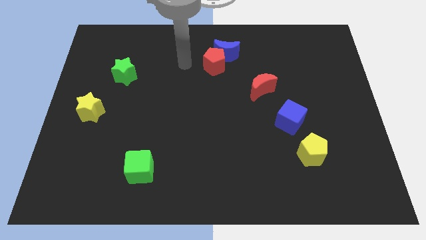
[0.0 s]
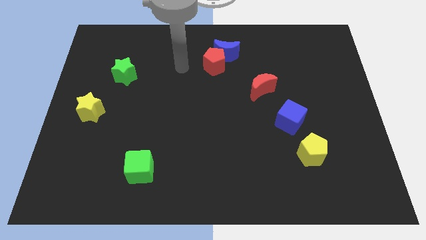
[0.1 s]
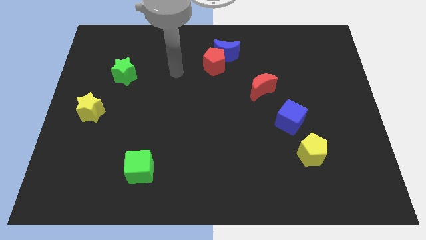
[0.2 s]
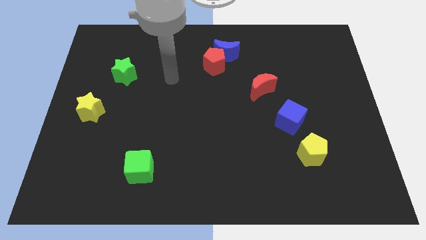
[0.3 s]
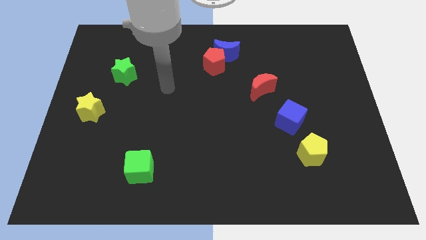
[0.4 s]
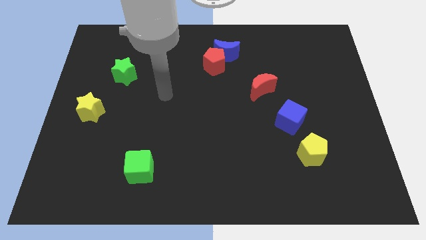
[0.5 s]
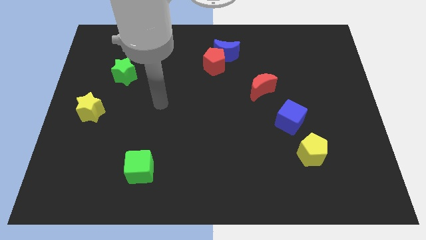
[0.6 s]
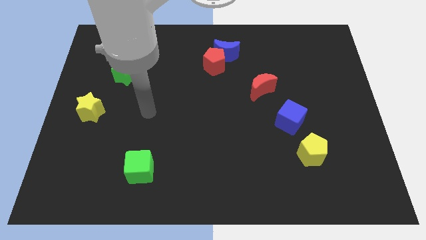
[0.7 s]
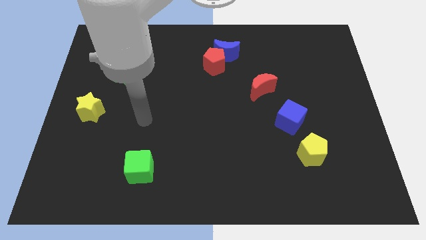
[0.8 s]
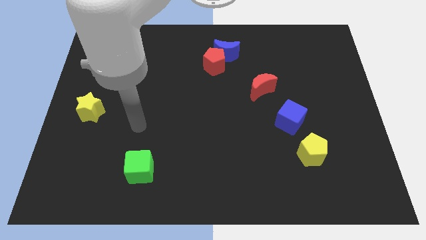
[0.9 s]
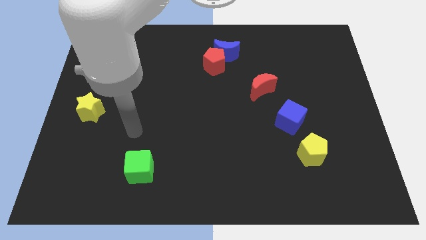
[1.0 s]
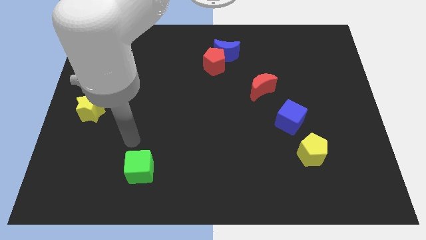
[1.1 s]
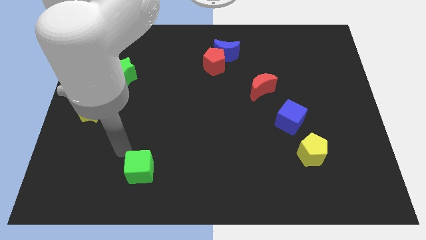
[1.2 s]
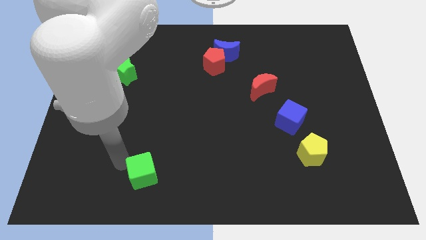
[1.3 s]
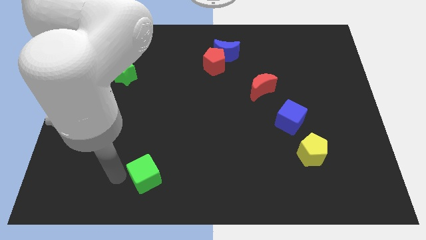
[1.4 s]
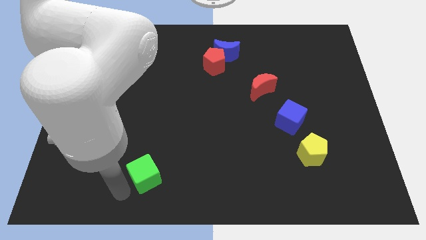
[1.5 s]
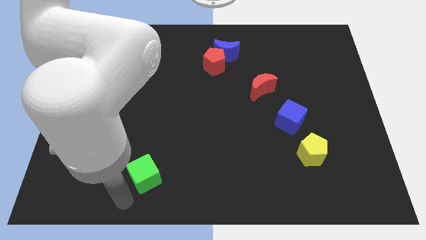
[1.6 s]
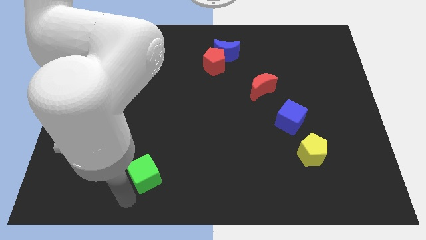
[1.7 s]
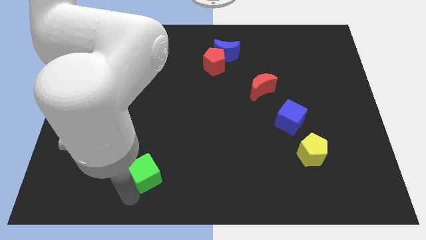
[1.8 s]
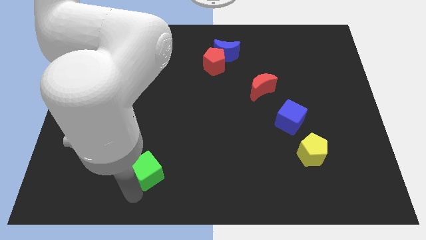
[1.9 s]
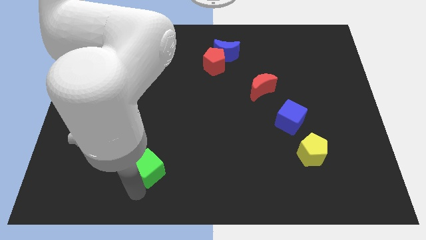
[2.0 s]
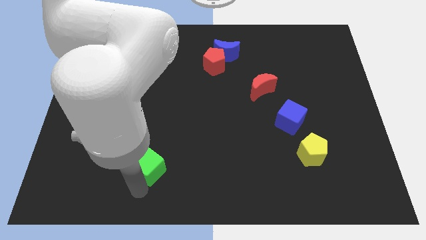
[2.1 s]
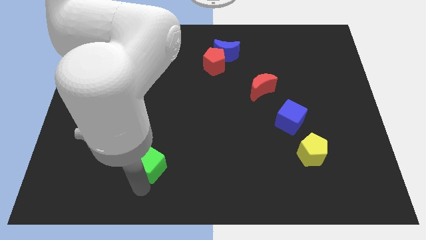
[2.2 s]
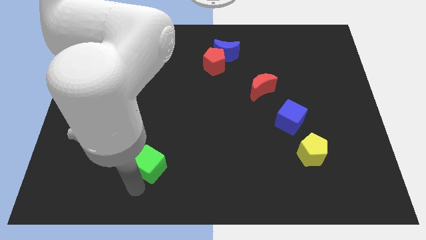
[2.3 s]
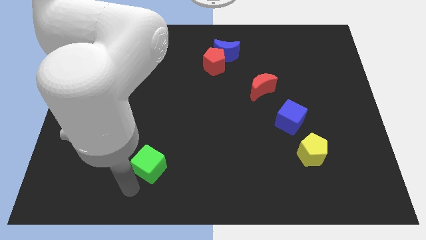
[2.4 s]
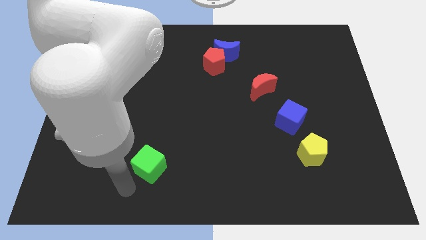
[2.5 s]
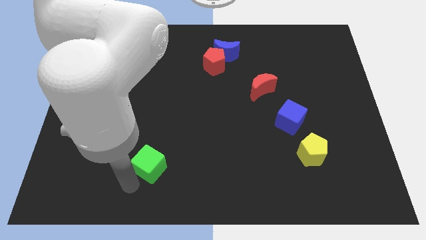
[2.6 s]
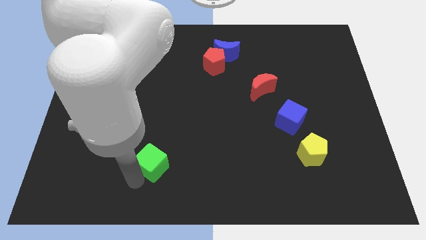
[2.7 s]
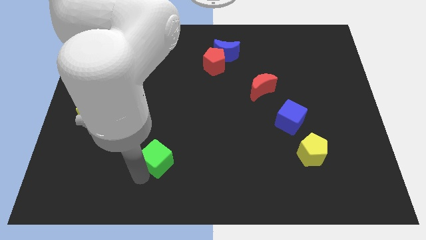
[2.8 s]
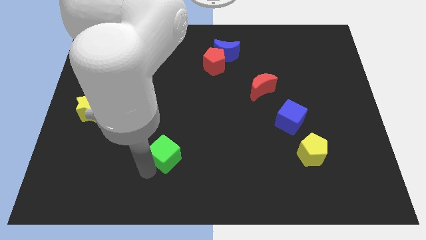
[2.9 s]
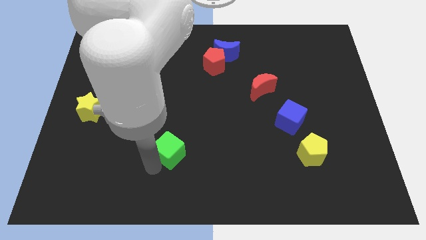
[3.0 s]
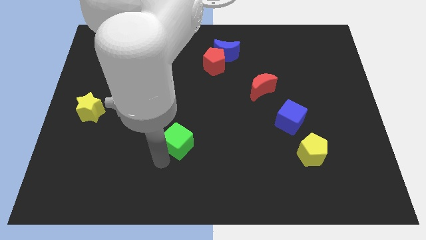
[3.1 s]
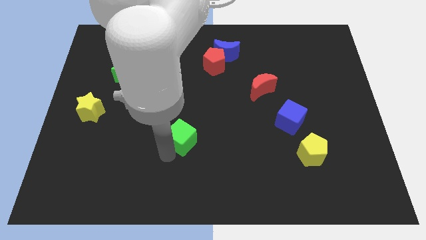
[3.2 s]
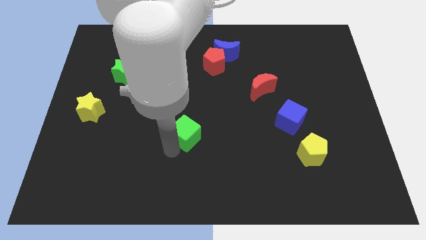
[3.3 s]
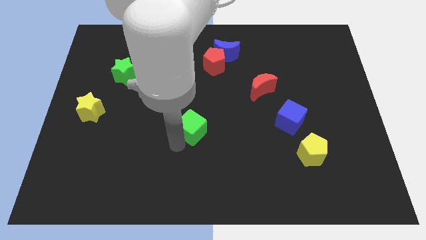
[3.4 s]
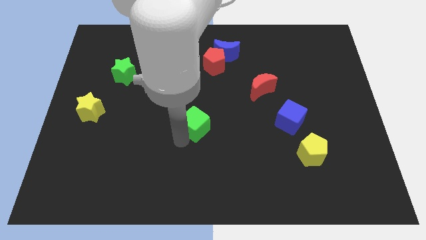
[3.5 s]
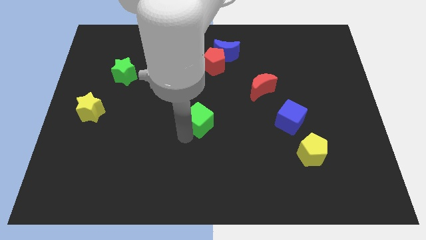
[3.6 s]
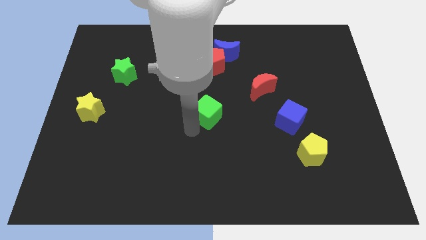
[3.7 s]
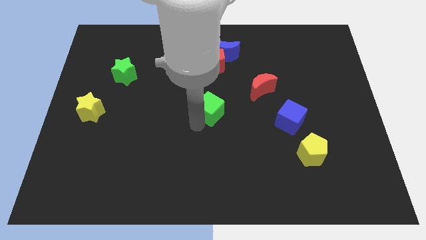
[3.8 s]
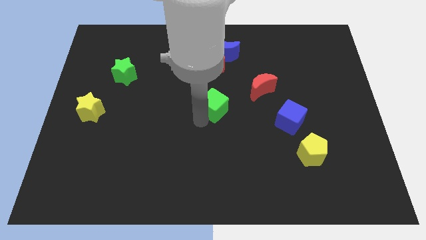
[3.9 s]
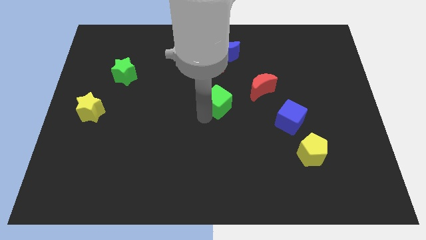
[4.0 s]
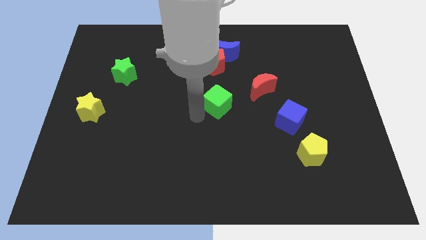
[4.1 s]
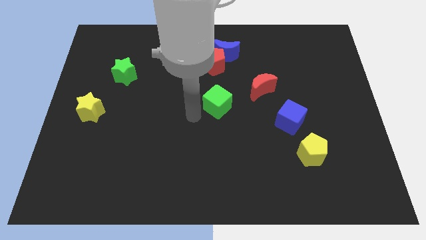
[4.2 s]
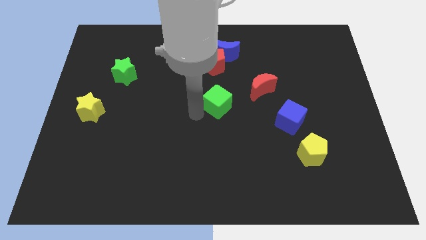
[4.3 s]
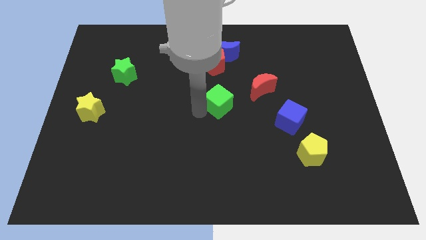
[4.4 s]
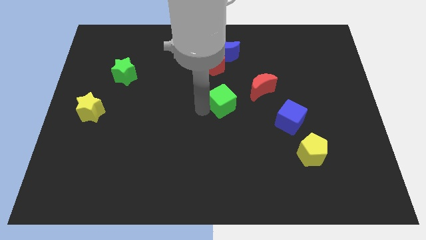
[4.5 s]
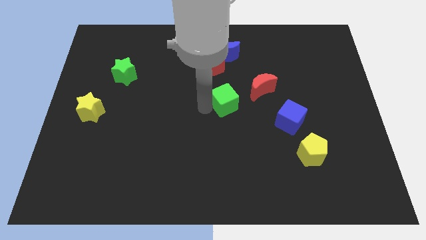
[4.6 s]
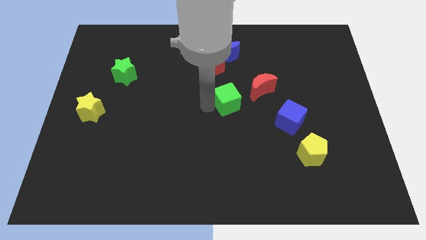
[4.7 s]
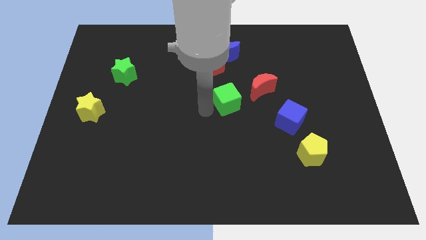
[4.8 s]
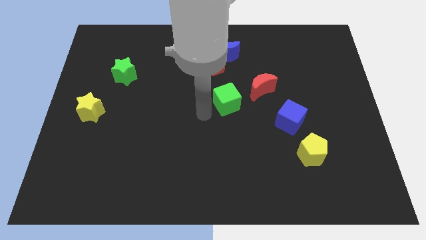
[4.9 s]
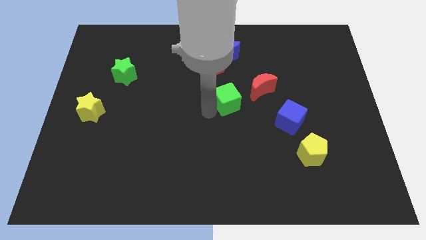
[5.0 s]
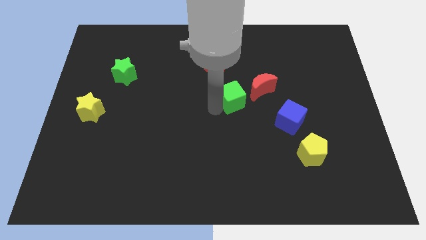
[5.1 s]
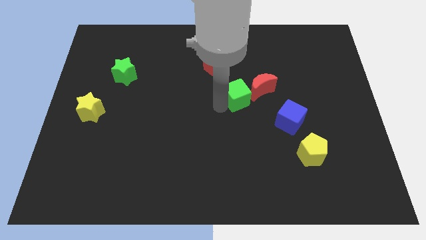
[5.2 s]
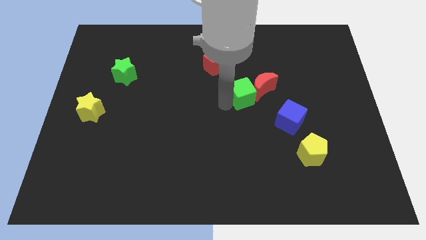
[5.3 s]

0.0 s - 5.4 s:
push the green cube next to the red moon
